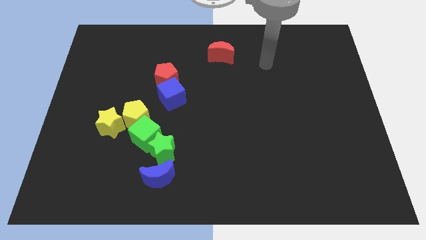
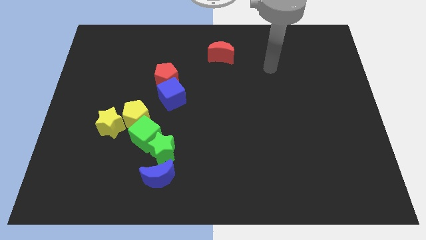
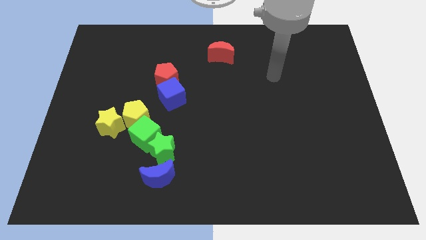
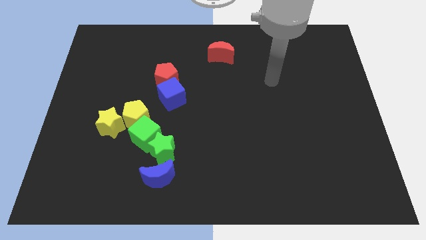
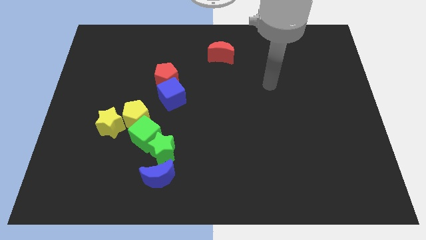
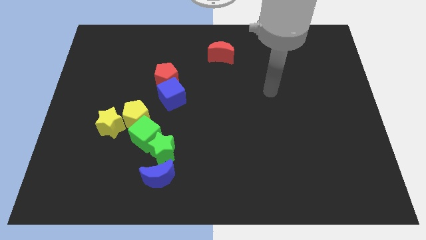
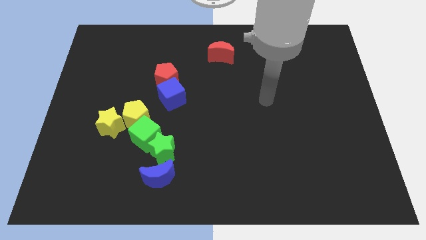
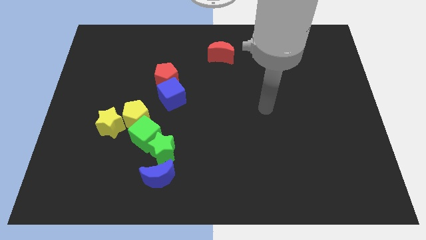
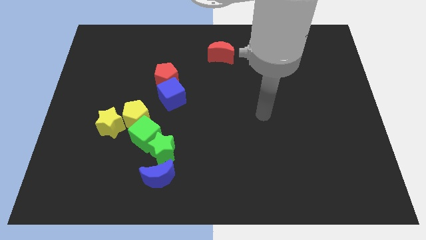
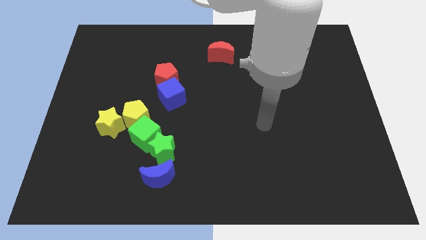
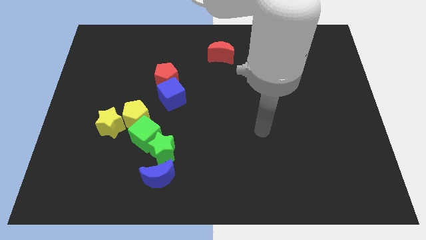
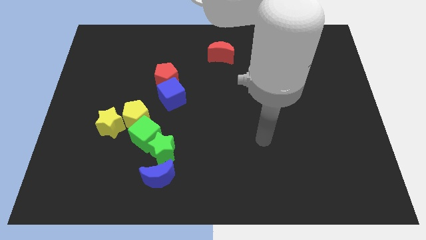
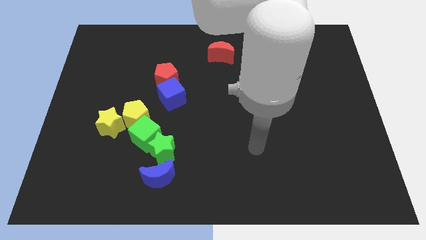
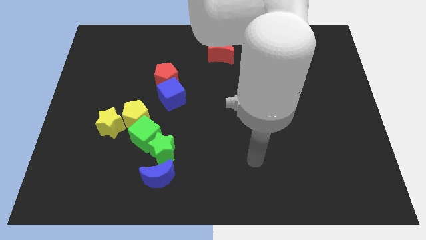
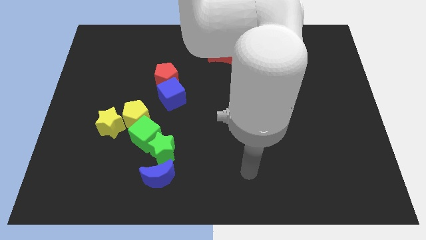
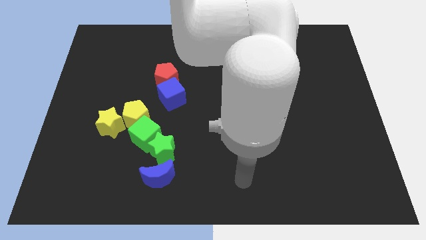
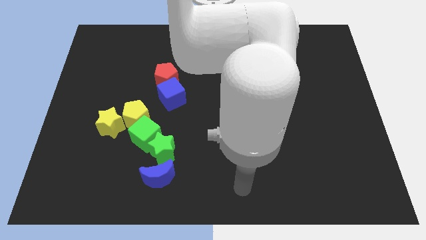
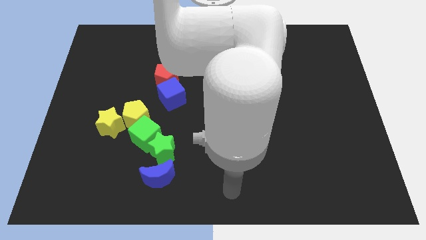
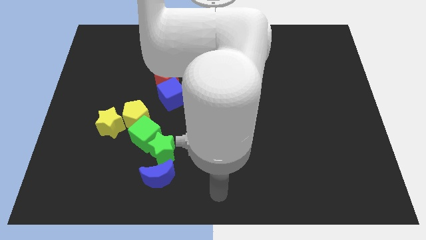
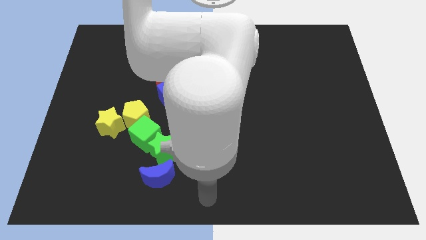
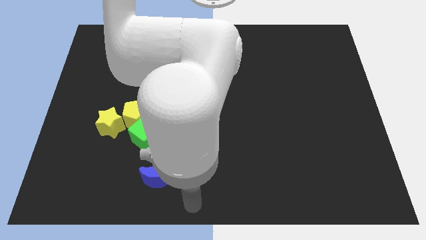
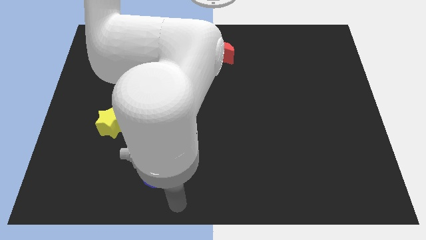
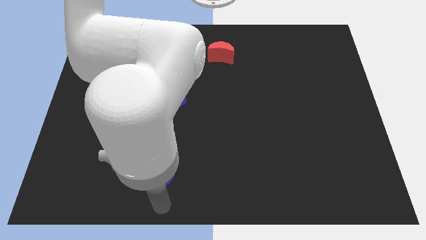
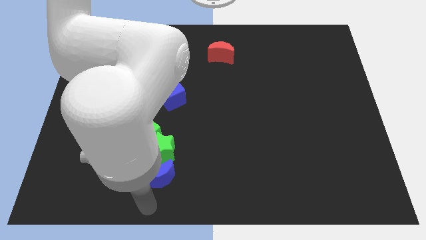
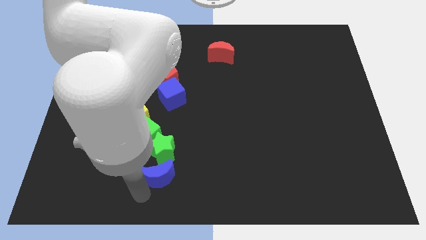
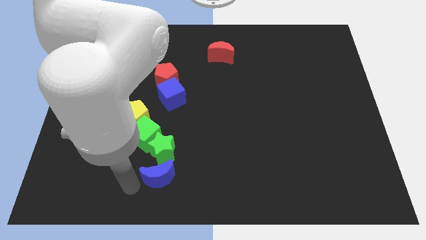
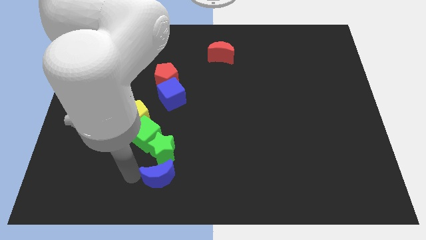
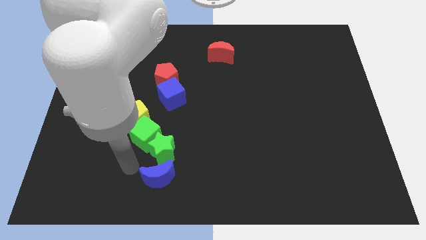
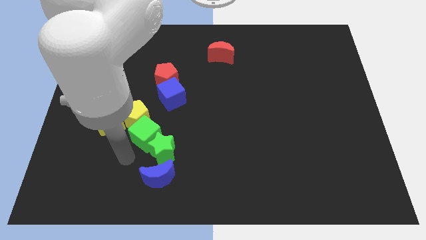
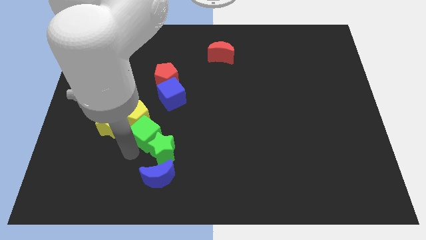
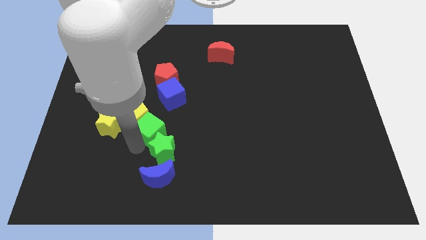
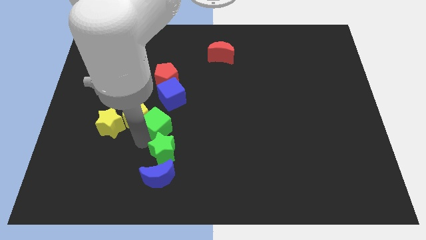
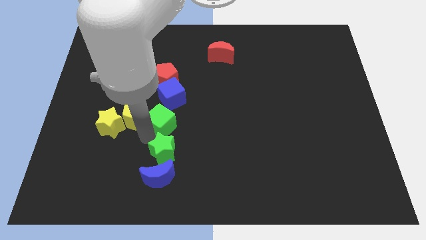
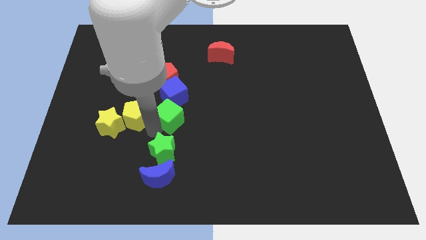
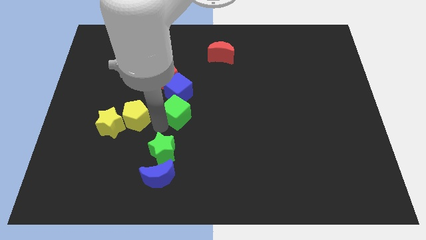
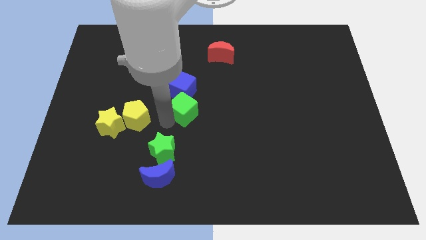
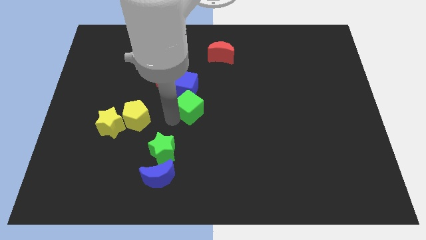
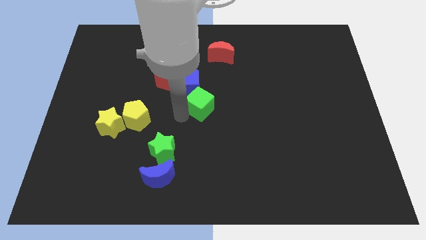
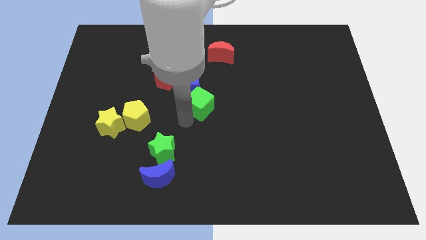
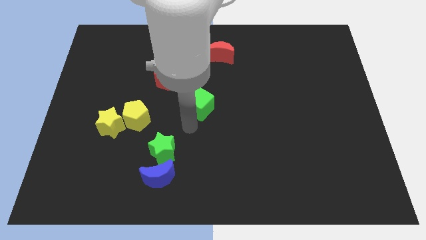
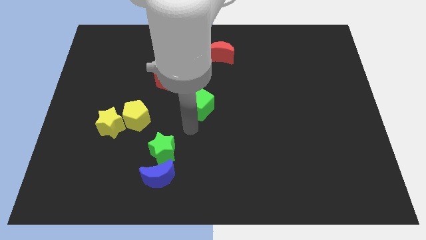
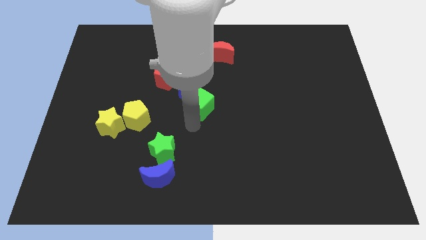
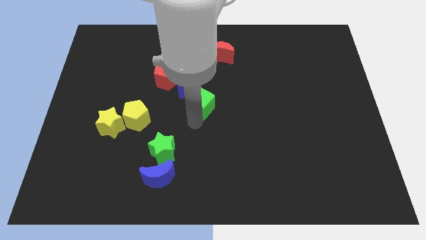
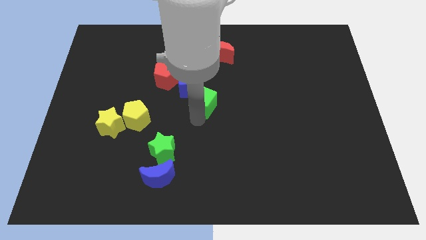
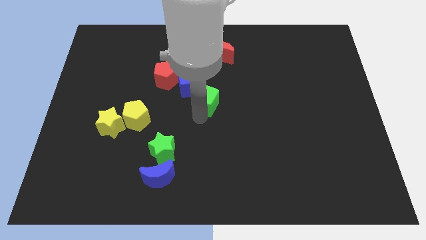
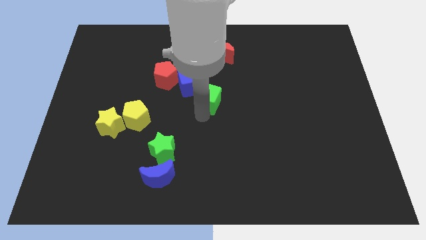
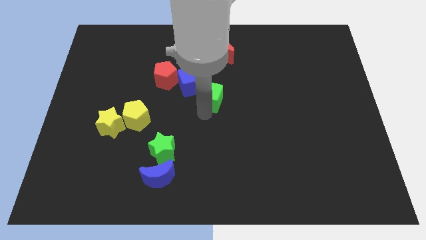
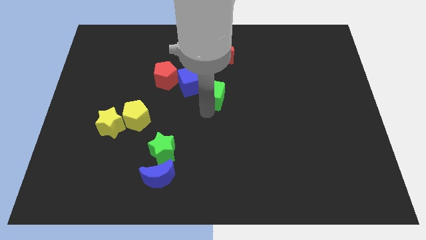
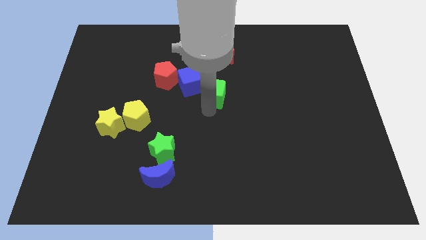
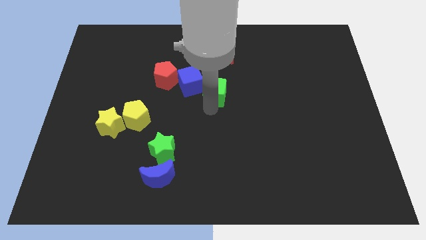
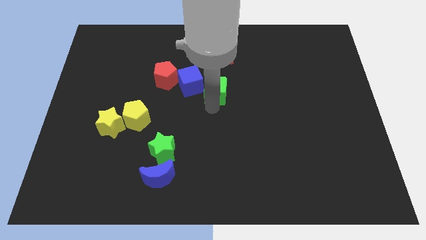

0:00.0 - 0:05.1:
push the green cube upwards and to the right diagonally

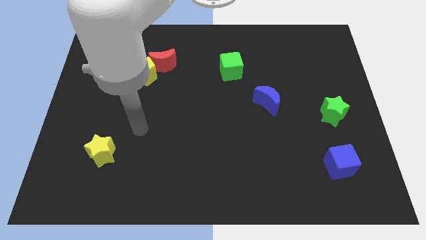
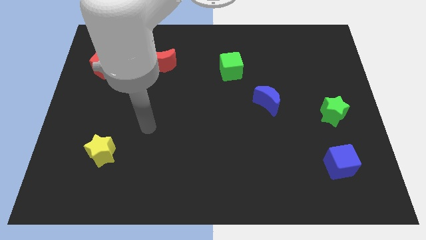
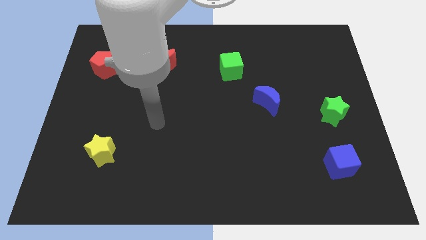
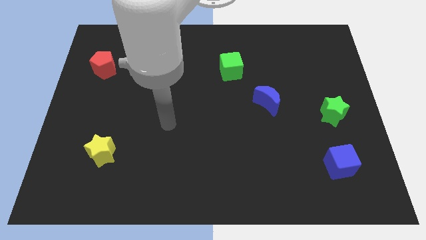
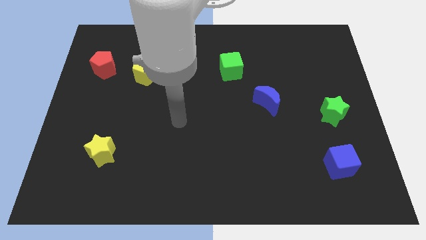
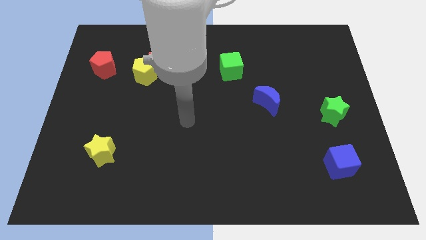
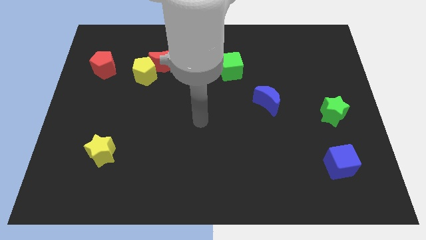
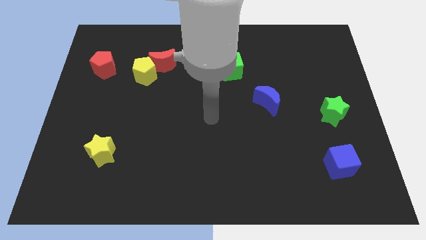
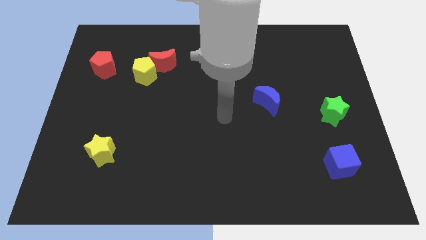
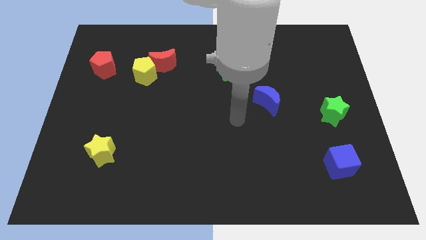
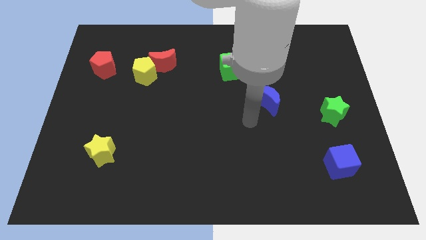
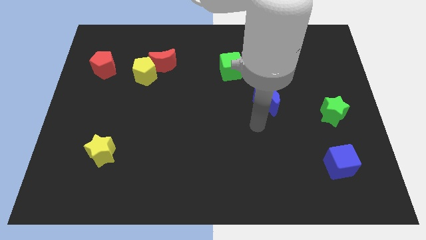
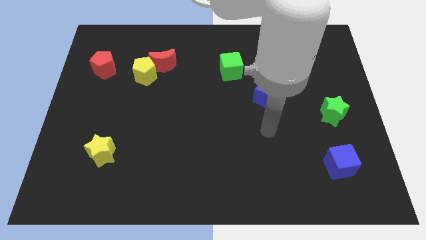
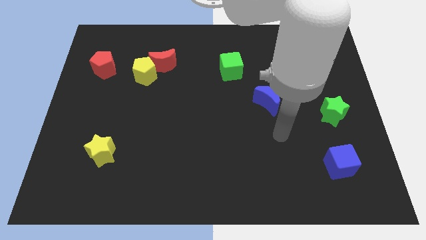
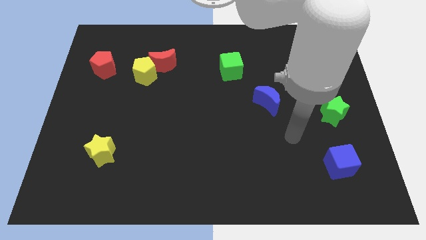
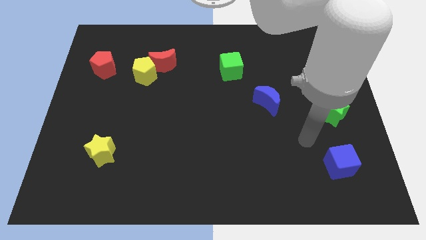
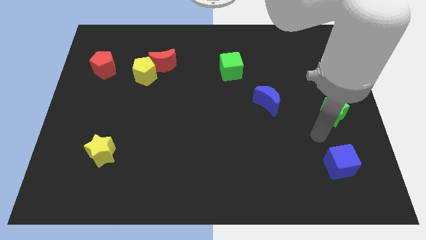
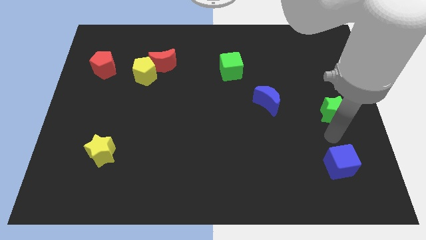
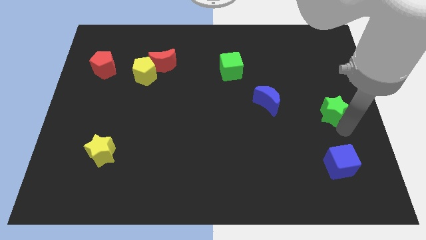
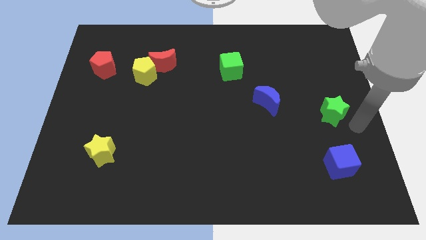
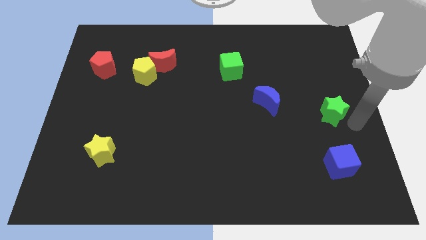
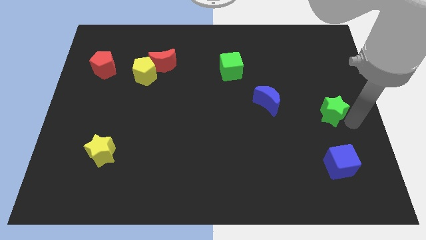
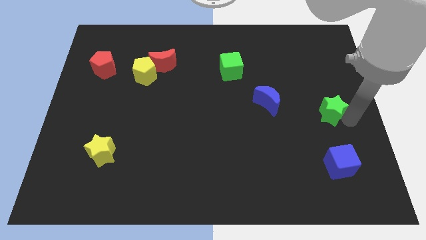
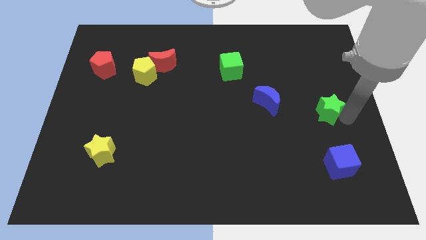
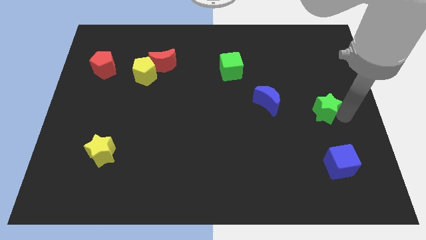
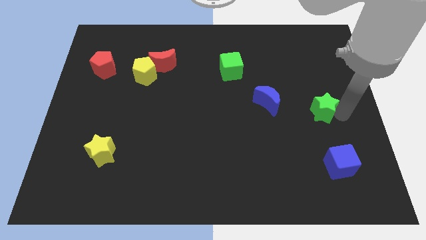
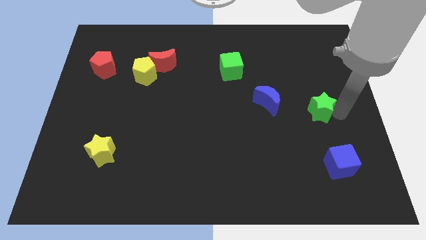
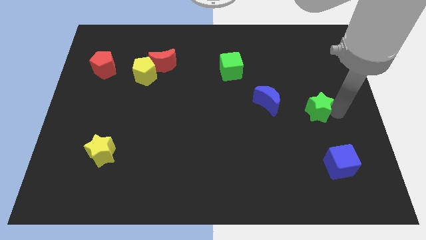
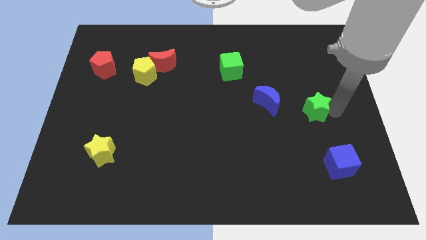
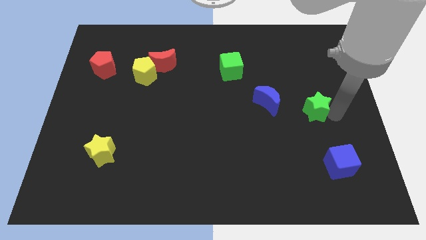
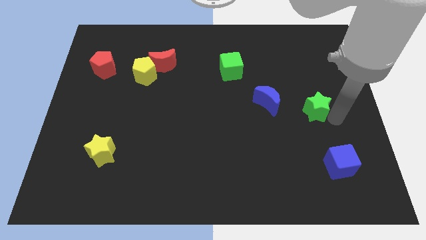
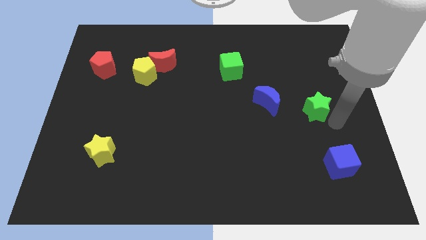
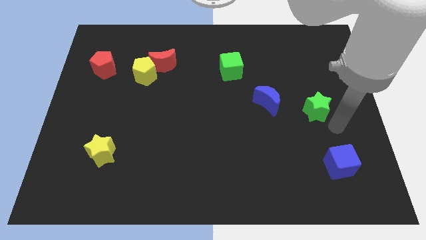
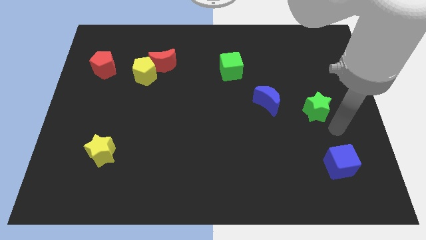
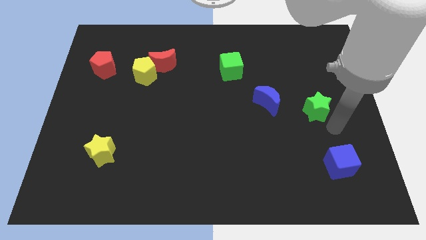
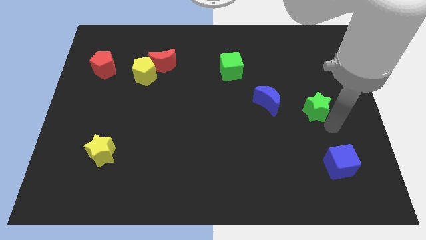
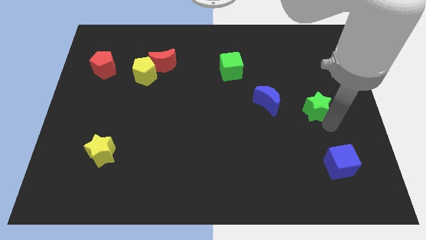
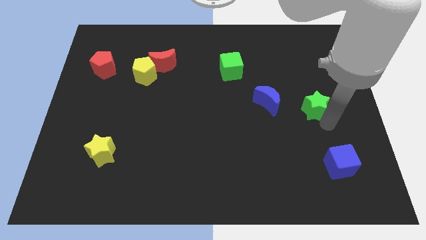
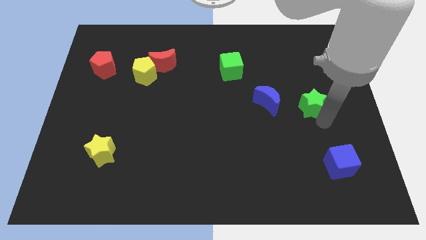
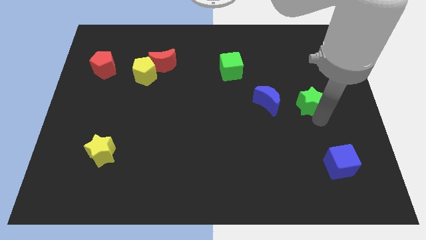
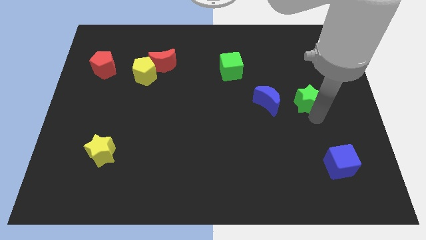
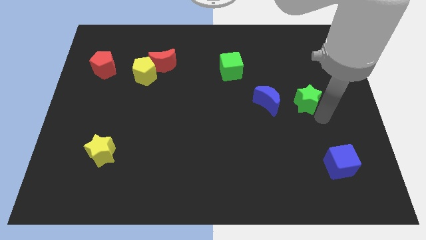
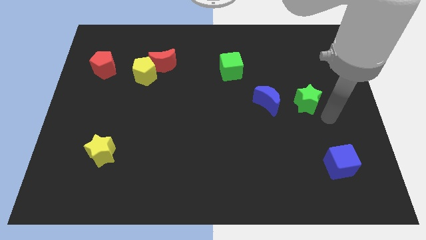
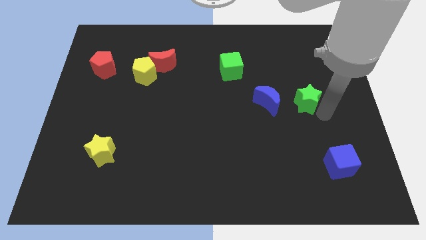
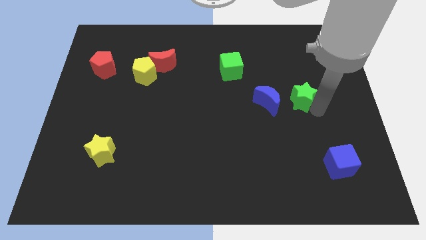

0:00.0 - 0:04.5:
slightly slide the green star diagonally up and to the left
